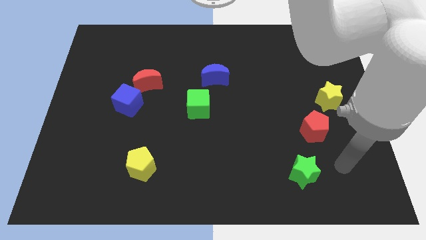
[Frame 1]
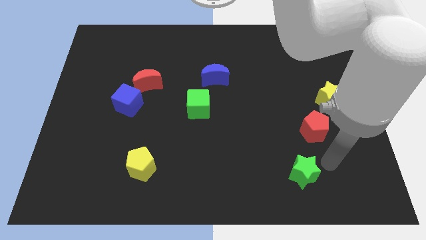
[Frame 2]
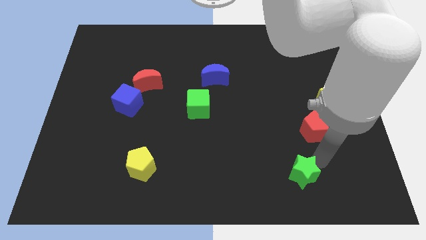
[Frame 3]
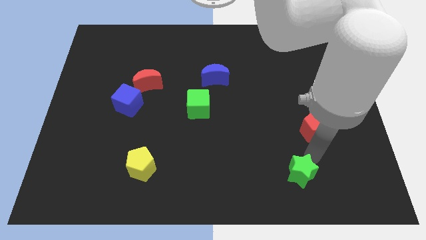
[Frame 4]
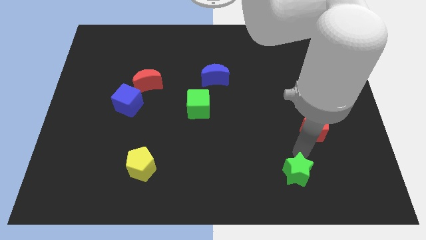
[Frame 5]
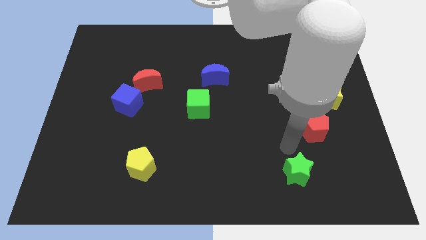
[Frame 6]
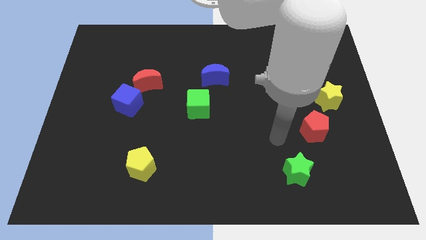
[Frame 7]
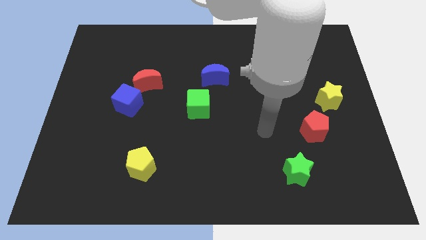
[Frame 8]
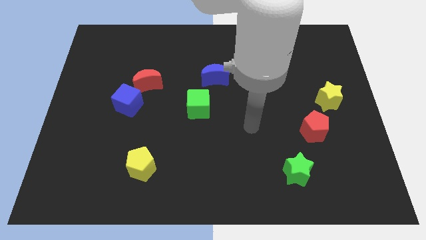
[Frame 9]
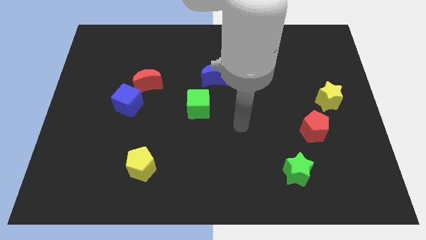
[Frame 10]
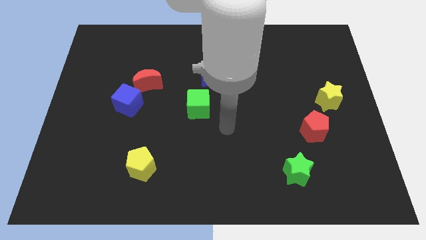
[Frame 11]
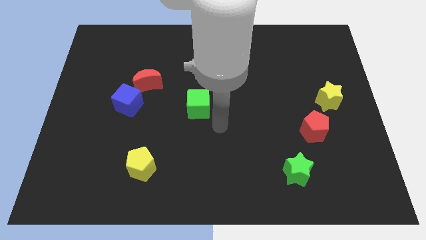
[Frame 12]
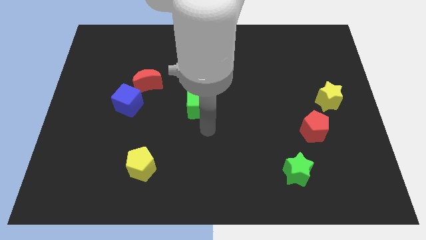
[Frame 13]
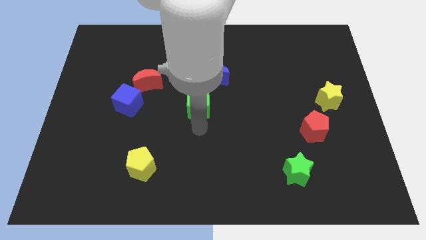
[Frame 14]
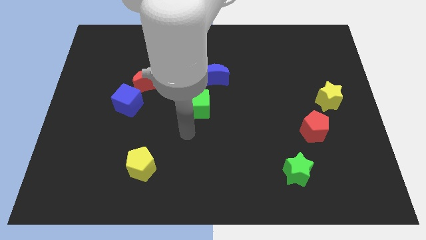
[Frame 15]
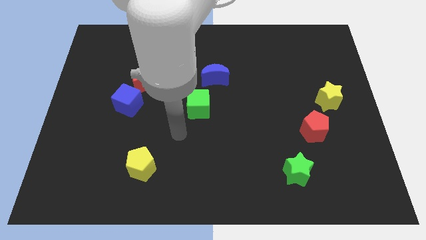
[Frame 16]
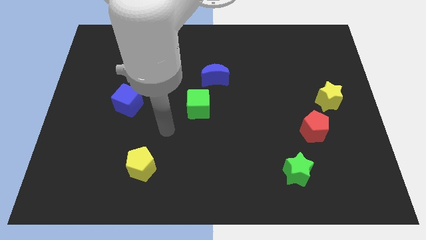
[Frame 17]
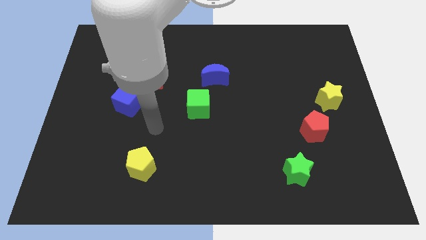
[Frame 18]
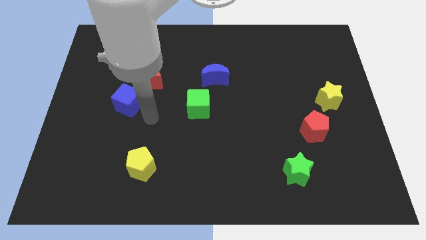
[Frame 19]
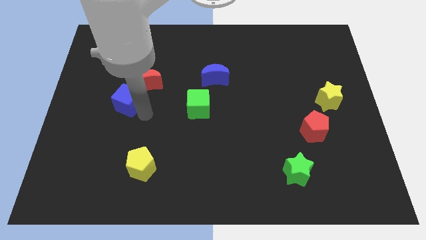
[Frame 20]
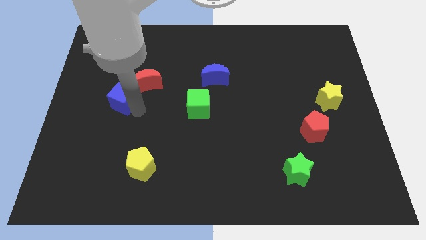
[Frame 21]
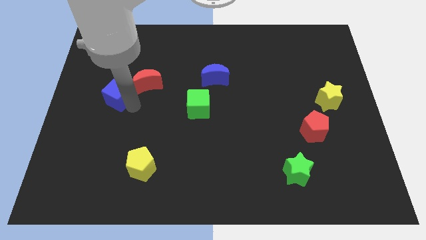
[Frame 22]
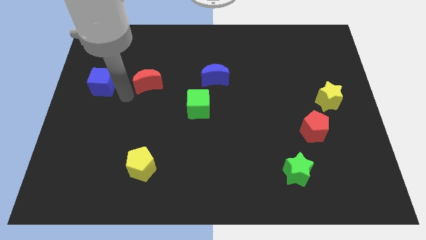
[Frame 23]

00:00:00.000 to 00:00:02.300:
move the red moon away from the blue cube

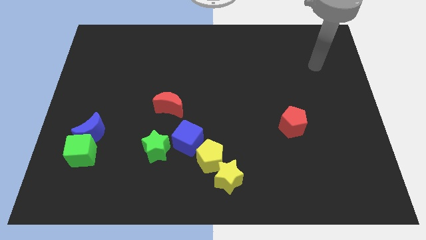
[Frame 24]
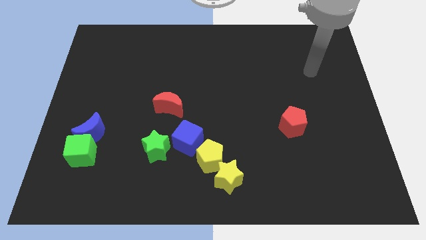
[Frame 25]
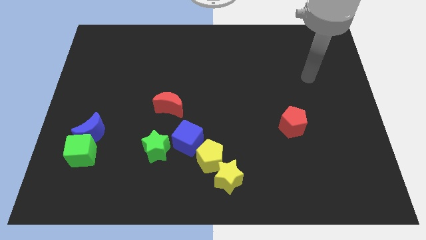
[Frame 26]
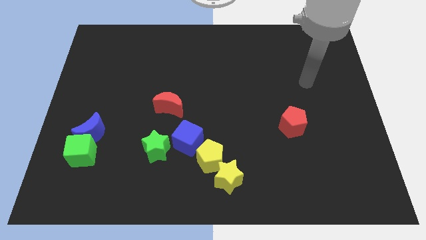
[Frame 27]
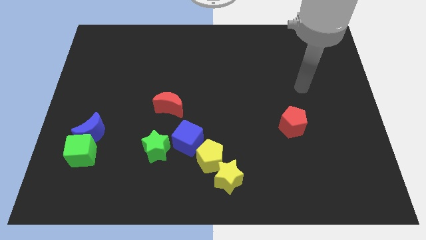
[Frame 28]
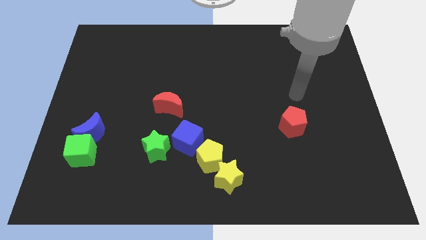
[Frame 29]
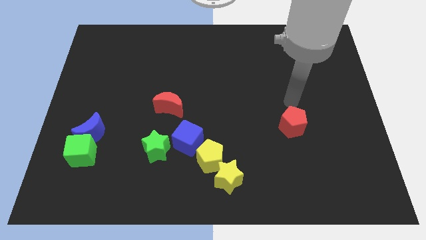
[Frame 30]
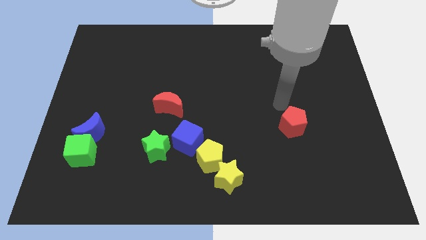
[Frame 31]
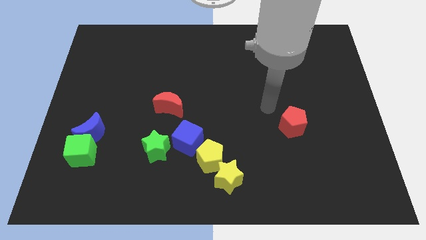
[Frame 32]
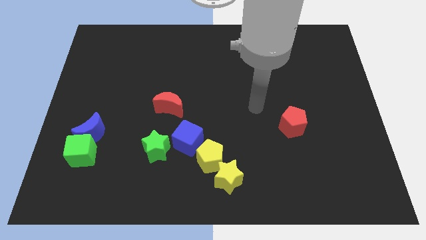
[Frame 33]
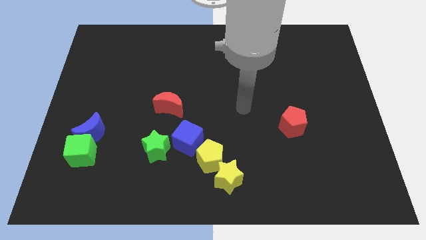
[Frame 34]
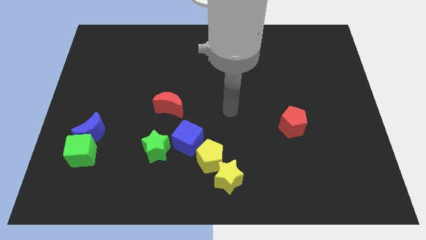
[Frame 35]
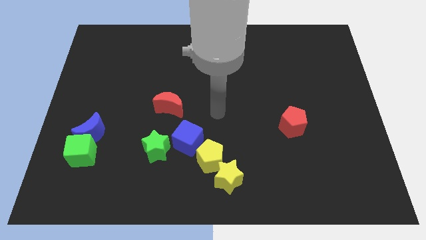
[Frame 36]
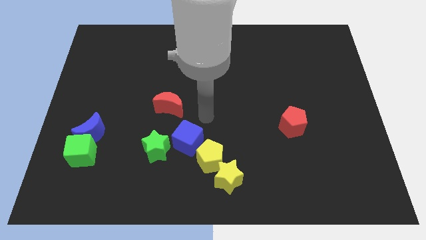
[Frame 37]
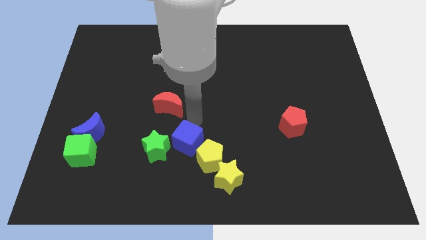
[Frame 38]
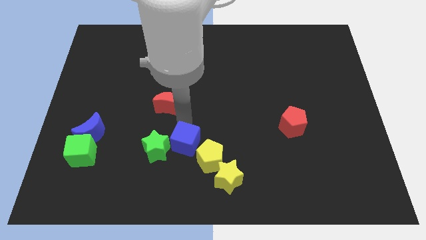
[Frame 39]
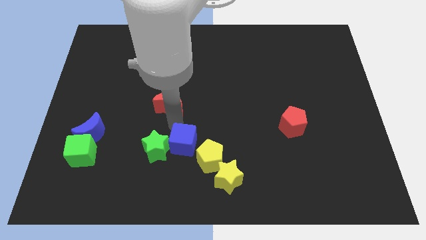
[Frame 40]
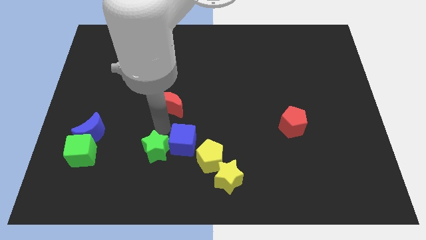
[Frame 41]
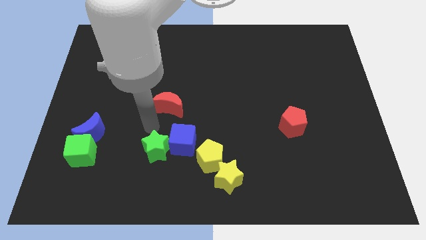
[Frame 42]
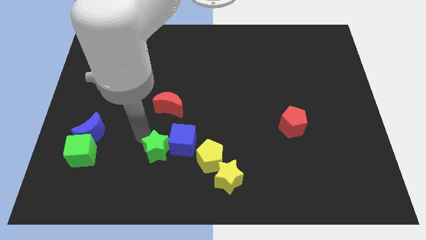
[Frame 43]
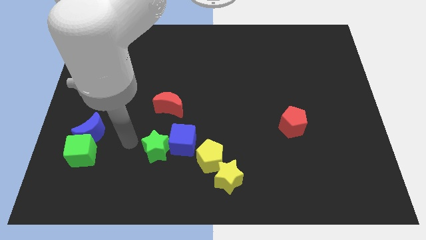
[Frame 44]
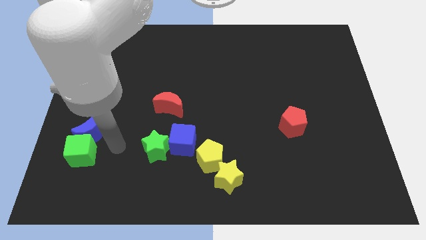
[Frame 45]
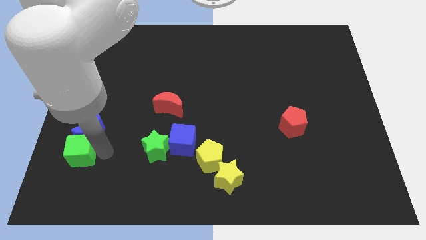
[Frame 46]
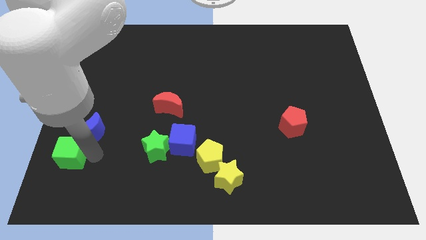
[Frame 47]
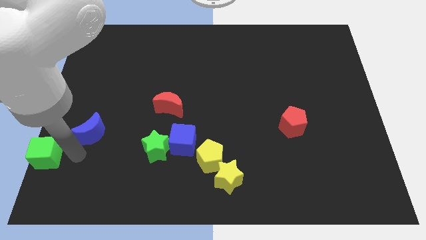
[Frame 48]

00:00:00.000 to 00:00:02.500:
separate the blue moon from the green cube

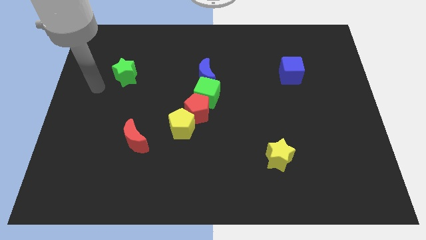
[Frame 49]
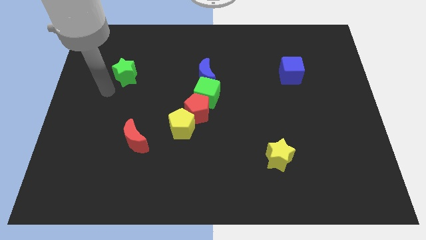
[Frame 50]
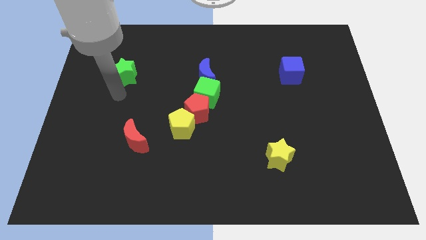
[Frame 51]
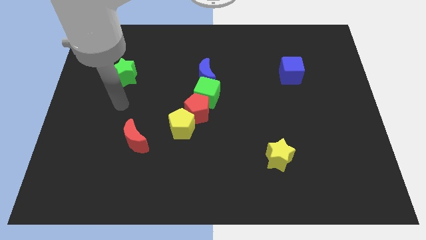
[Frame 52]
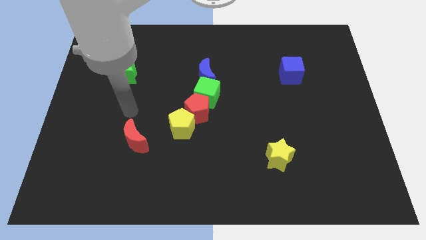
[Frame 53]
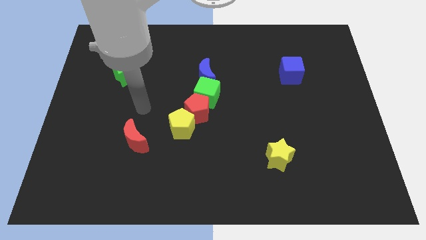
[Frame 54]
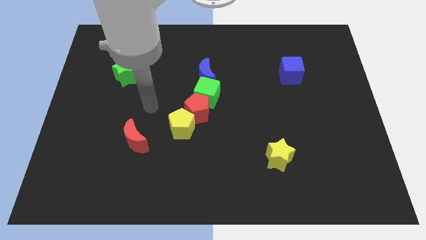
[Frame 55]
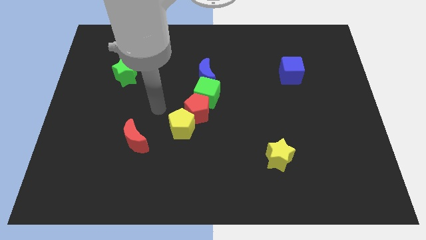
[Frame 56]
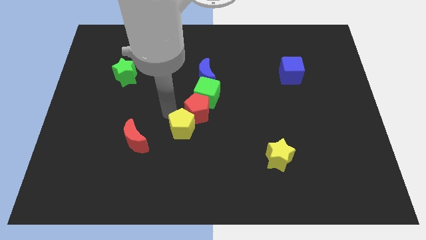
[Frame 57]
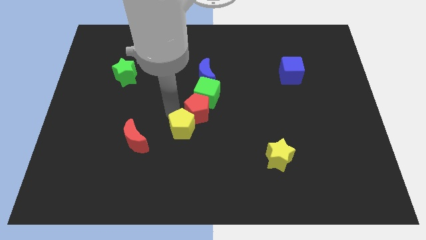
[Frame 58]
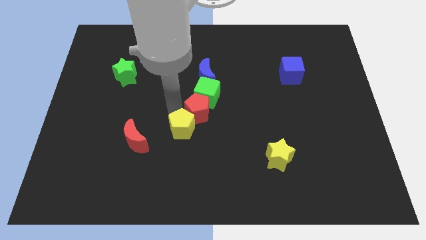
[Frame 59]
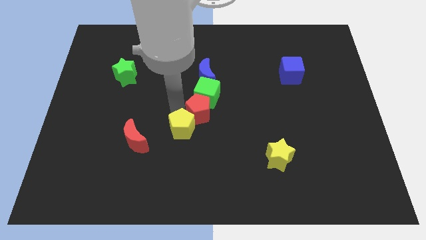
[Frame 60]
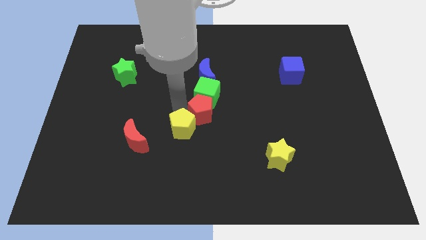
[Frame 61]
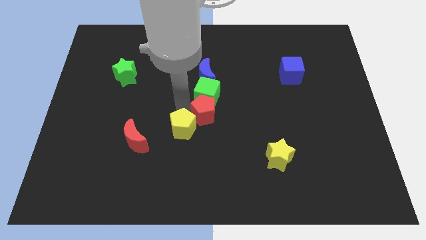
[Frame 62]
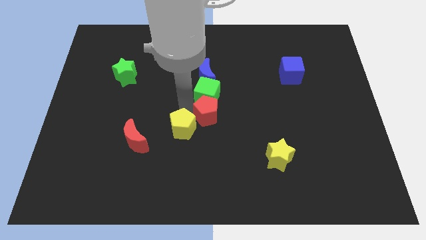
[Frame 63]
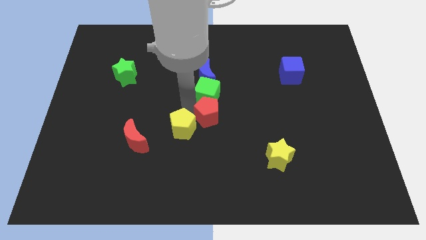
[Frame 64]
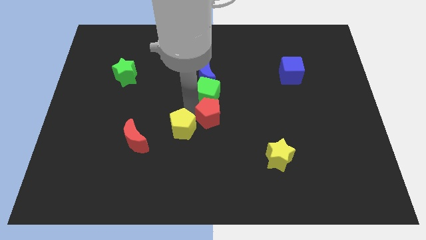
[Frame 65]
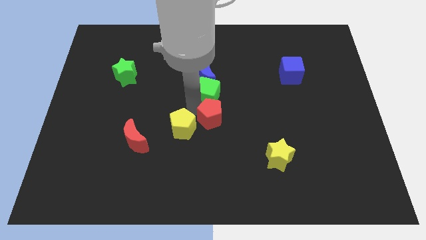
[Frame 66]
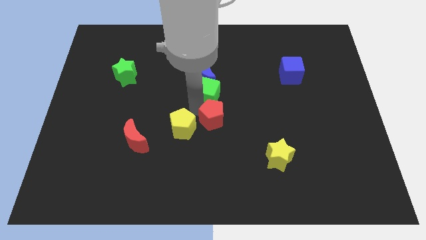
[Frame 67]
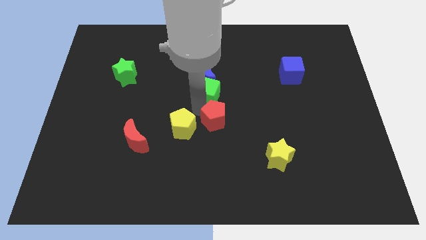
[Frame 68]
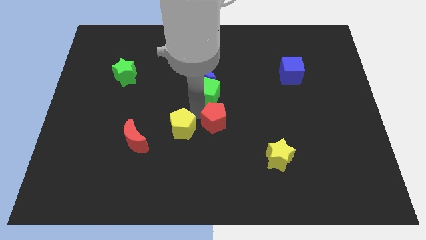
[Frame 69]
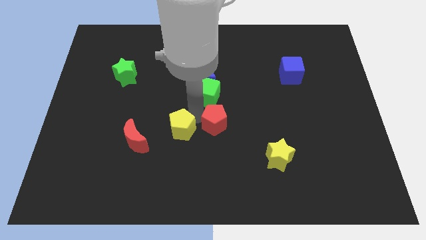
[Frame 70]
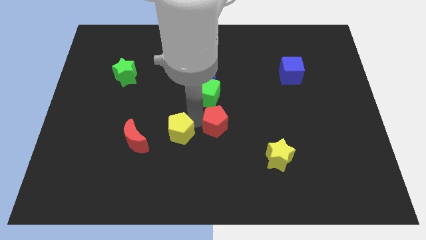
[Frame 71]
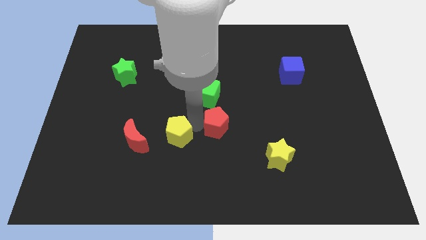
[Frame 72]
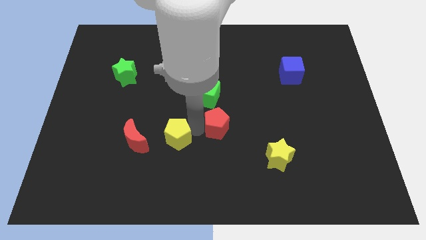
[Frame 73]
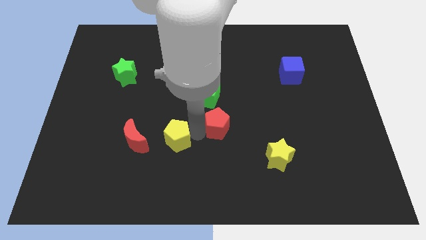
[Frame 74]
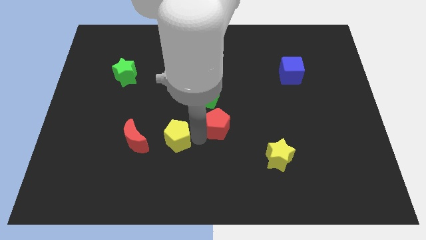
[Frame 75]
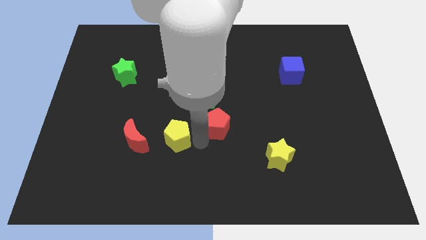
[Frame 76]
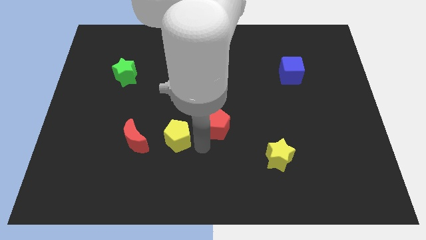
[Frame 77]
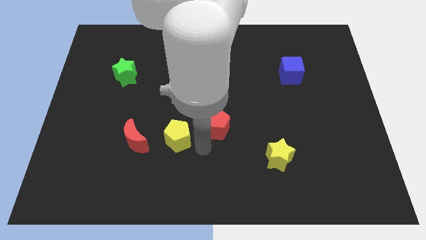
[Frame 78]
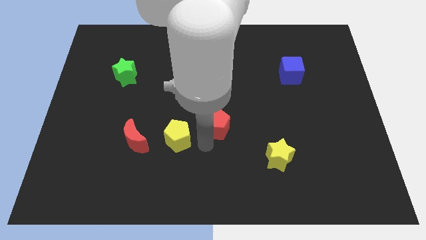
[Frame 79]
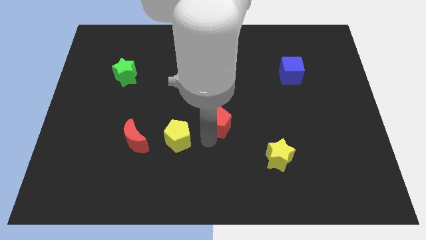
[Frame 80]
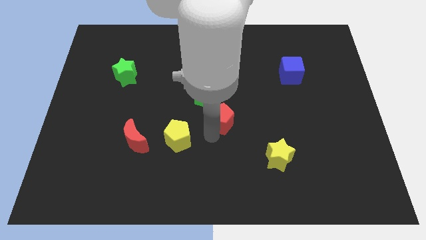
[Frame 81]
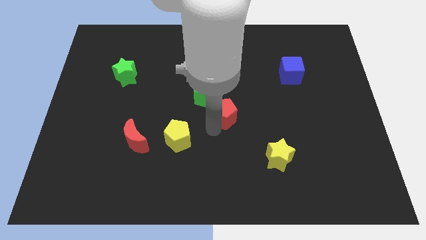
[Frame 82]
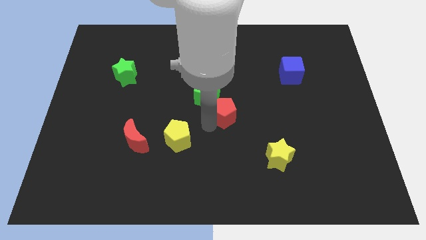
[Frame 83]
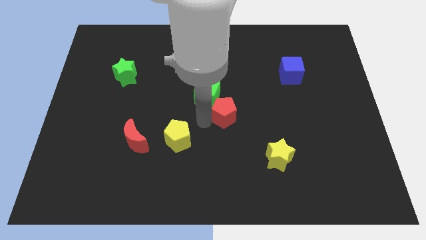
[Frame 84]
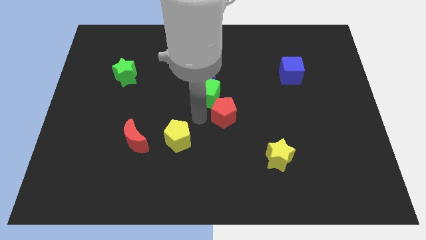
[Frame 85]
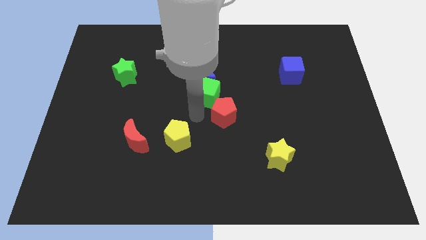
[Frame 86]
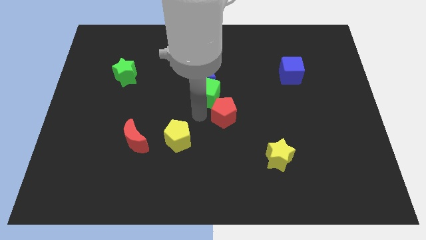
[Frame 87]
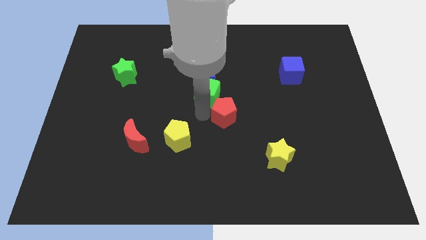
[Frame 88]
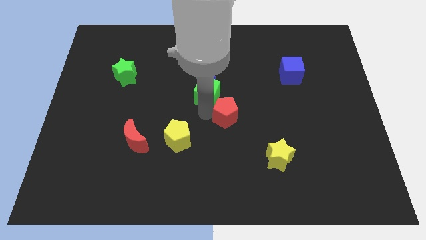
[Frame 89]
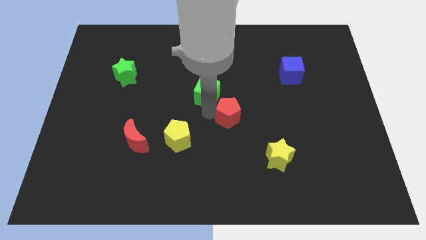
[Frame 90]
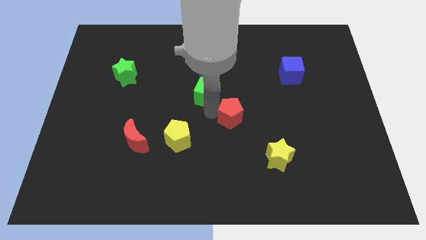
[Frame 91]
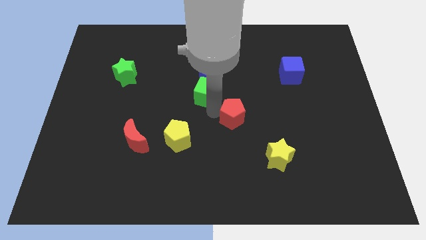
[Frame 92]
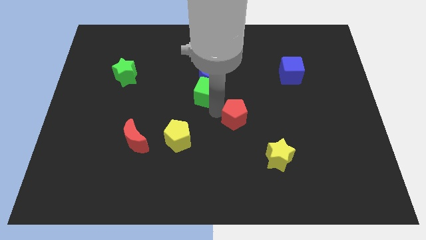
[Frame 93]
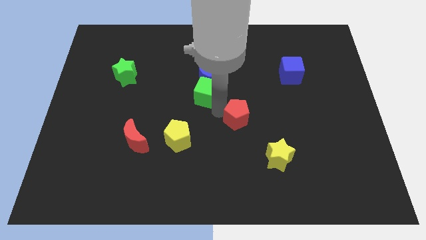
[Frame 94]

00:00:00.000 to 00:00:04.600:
pull the red pentagon apart from the green cube and yellow pentagon
